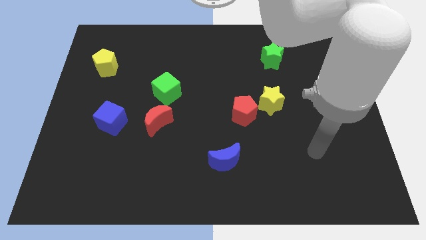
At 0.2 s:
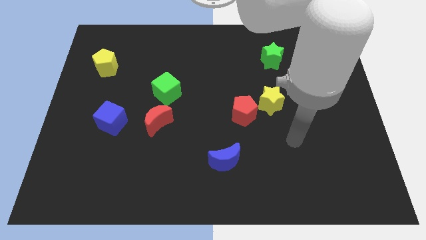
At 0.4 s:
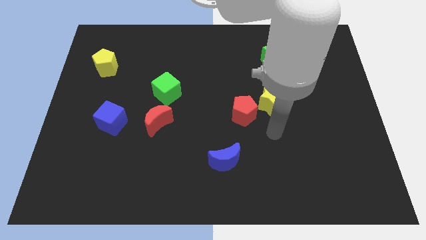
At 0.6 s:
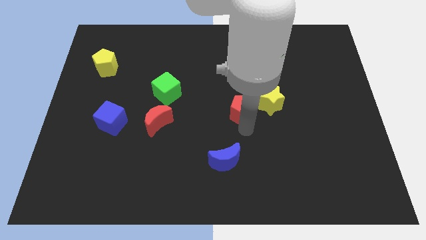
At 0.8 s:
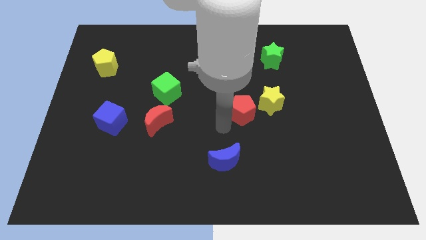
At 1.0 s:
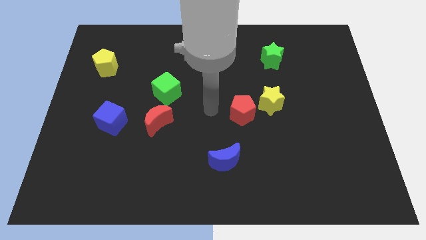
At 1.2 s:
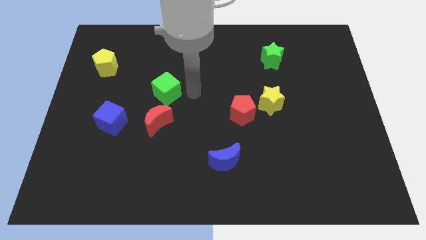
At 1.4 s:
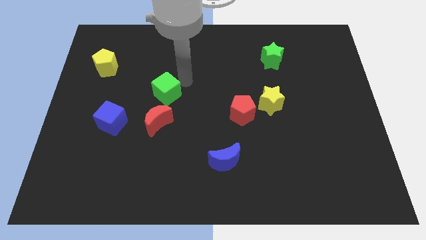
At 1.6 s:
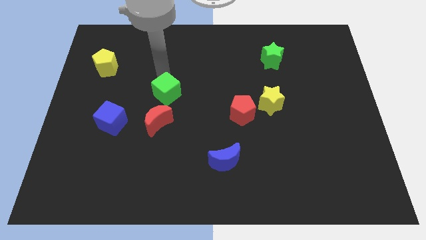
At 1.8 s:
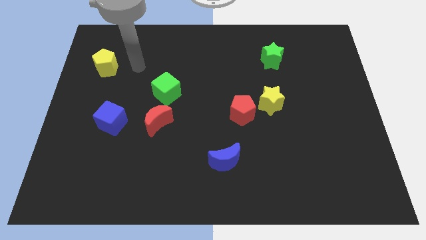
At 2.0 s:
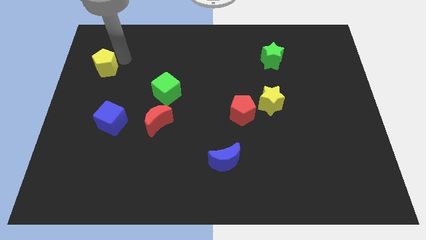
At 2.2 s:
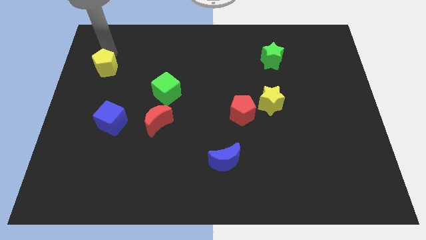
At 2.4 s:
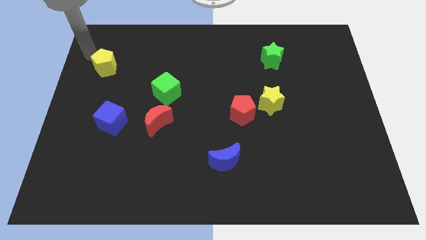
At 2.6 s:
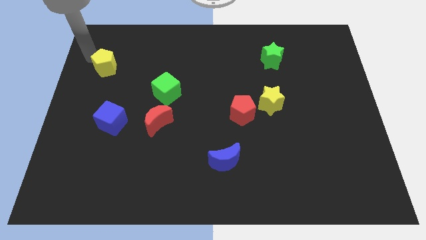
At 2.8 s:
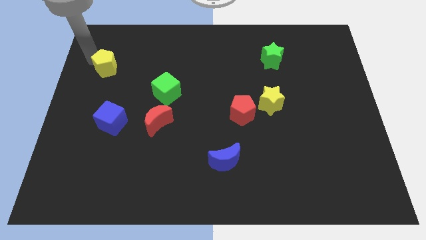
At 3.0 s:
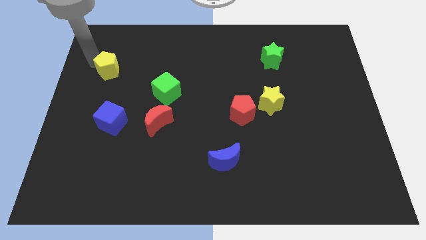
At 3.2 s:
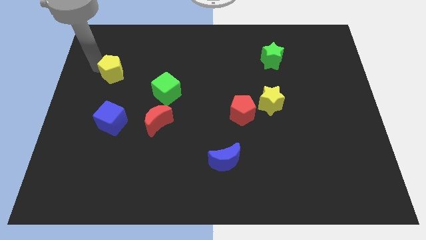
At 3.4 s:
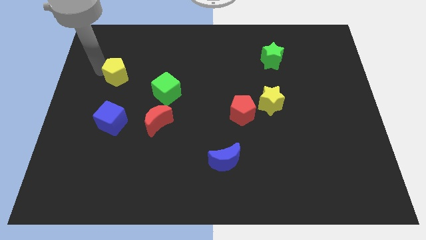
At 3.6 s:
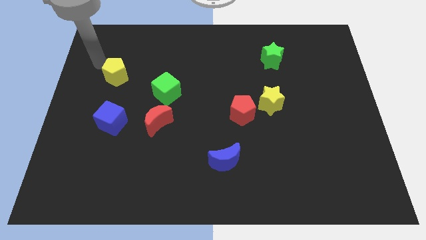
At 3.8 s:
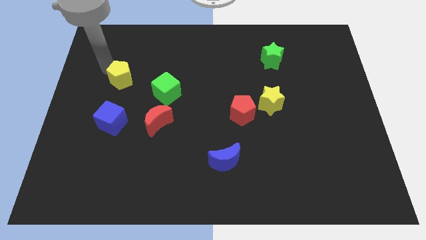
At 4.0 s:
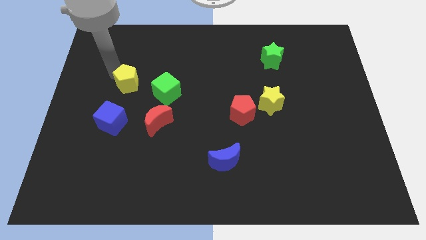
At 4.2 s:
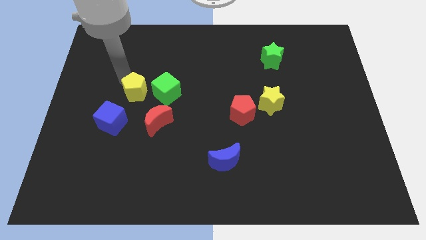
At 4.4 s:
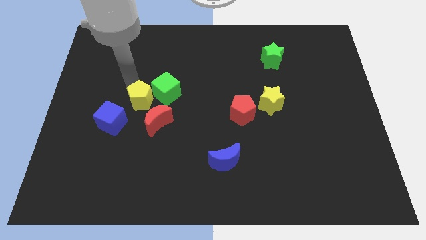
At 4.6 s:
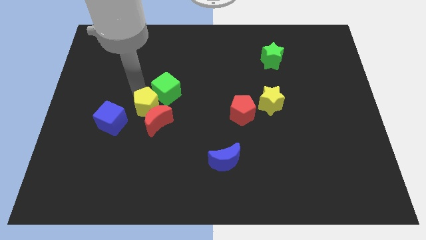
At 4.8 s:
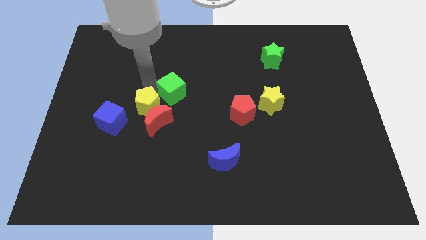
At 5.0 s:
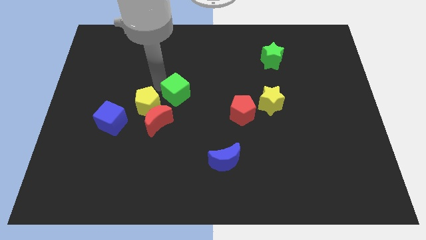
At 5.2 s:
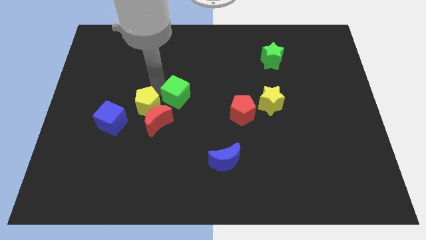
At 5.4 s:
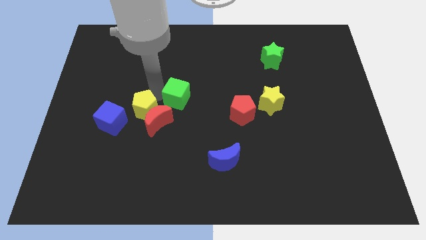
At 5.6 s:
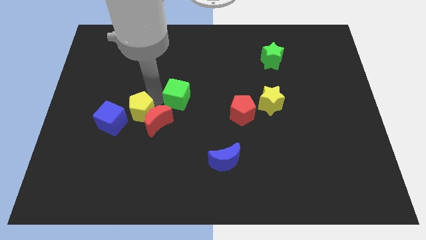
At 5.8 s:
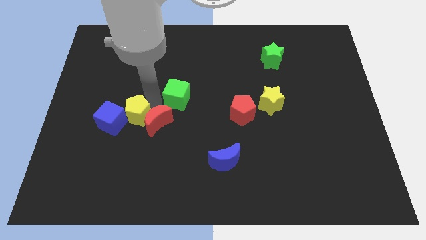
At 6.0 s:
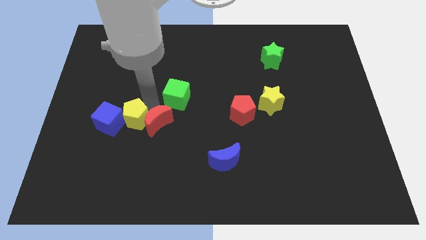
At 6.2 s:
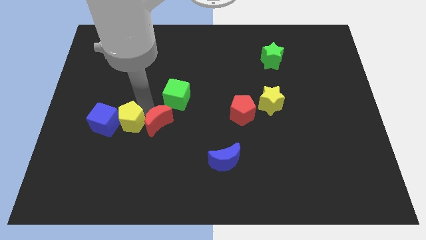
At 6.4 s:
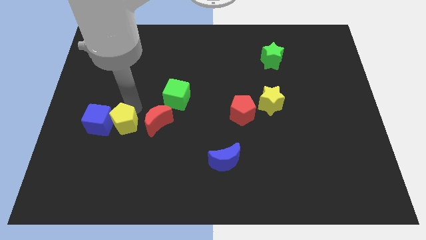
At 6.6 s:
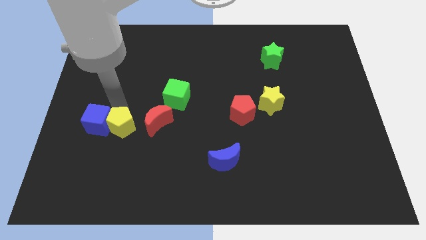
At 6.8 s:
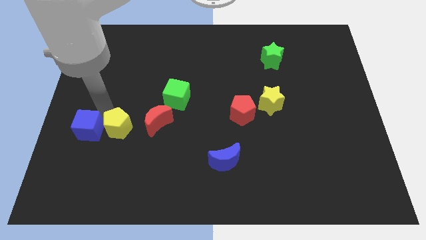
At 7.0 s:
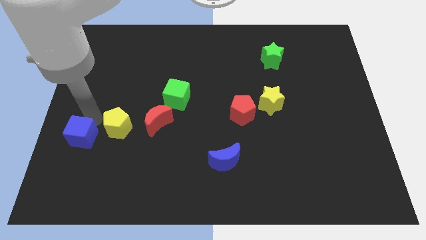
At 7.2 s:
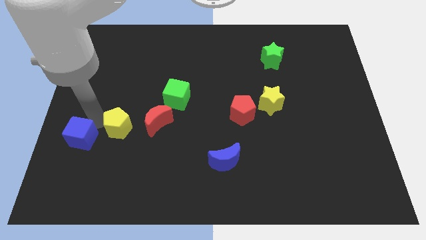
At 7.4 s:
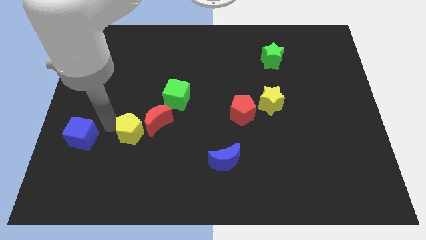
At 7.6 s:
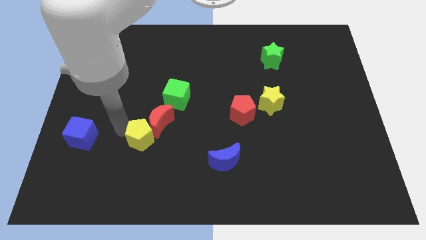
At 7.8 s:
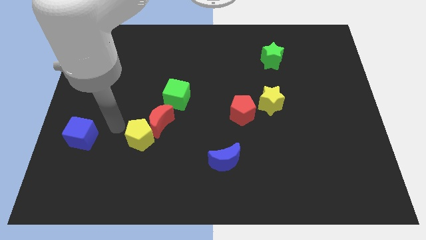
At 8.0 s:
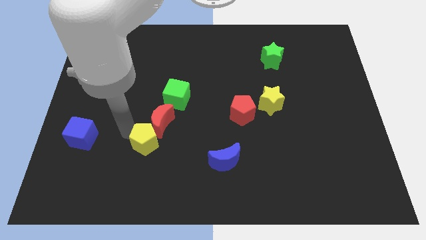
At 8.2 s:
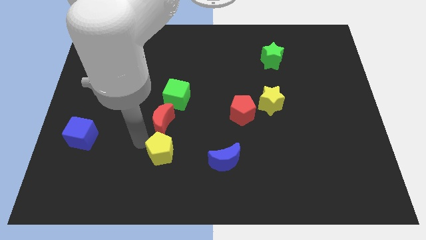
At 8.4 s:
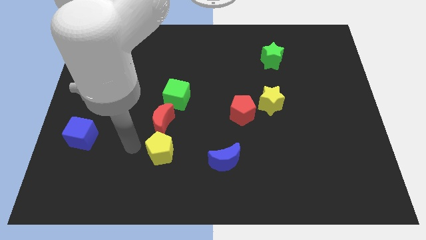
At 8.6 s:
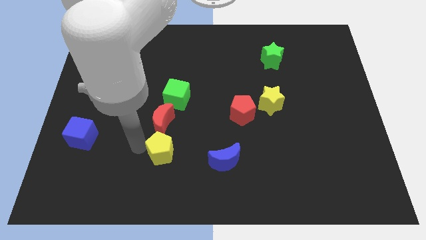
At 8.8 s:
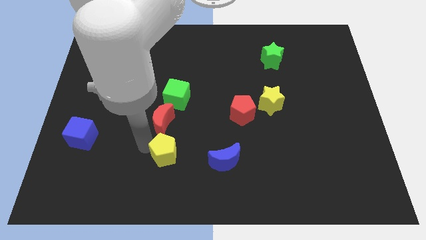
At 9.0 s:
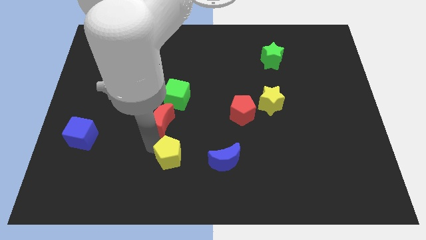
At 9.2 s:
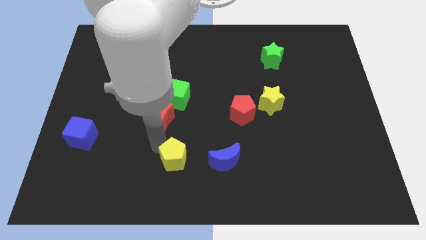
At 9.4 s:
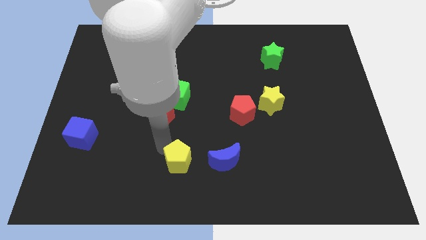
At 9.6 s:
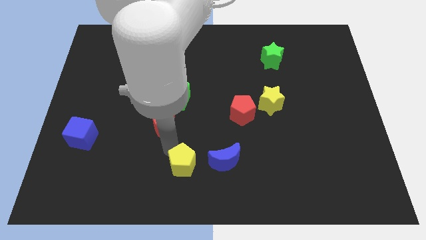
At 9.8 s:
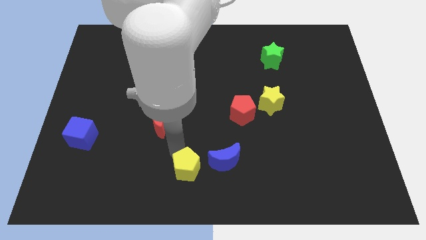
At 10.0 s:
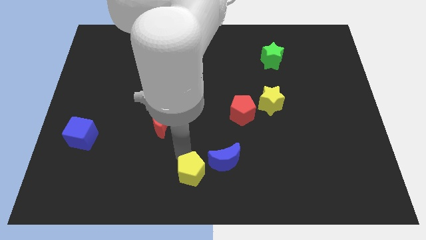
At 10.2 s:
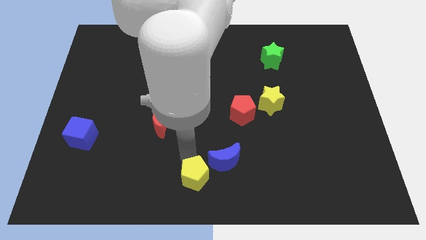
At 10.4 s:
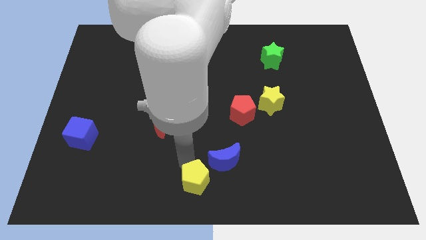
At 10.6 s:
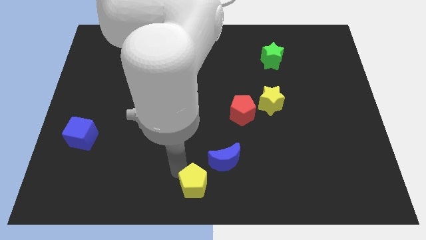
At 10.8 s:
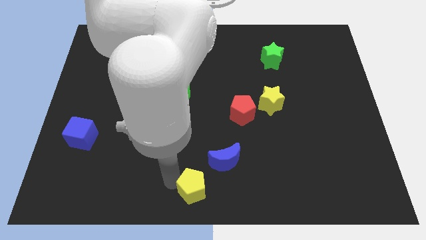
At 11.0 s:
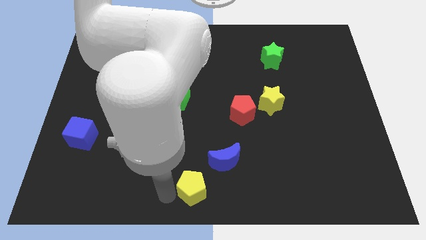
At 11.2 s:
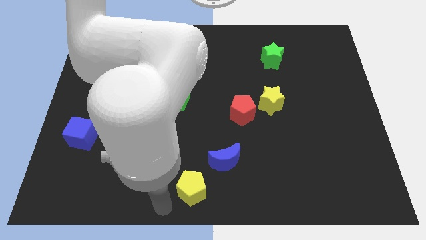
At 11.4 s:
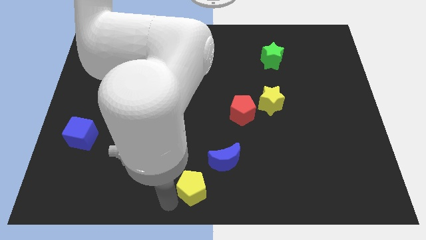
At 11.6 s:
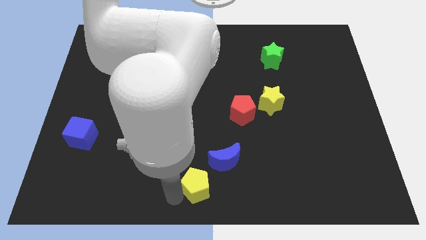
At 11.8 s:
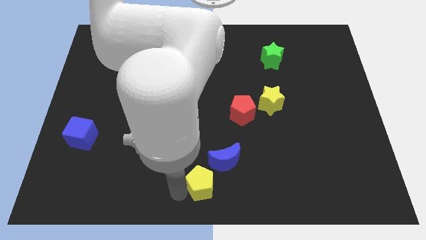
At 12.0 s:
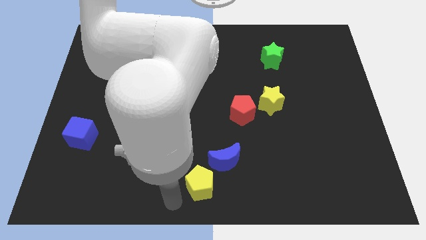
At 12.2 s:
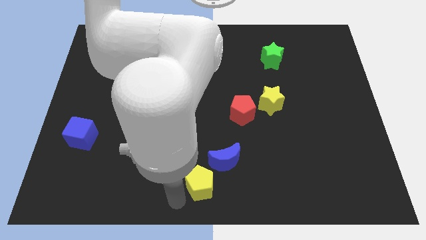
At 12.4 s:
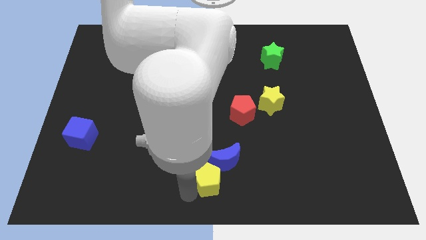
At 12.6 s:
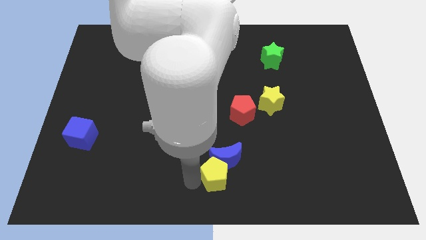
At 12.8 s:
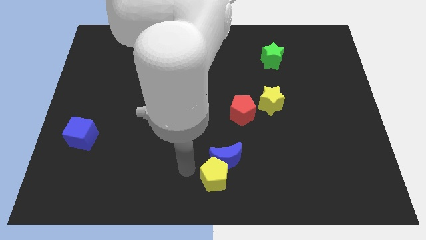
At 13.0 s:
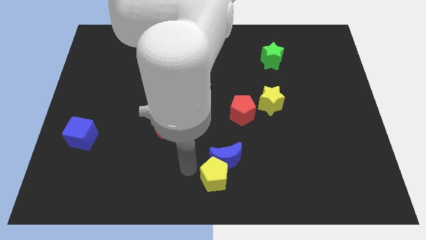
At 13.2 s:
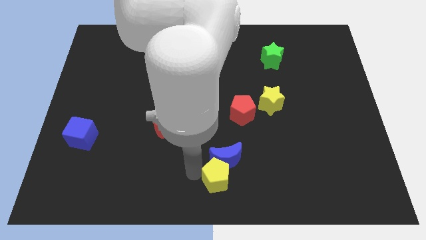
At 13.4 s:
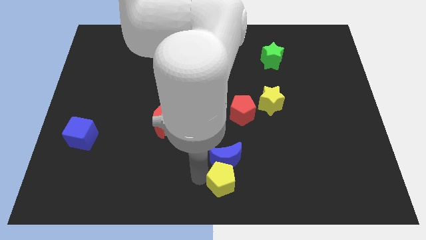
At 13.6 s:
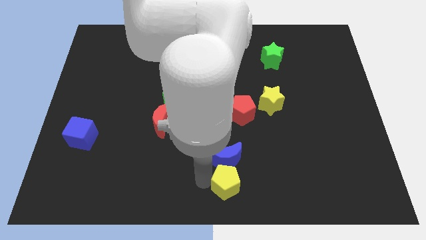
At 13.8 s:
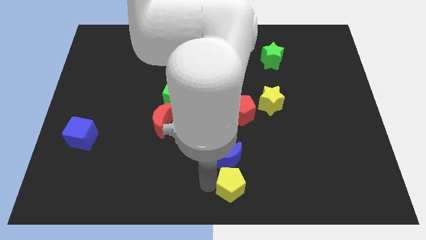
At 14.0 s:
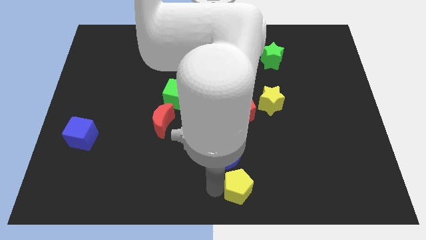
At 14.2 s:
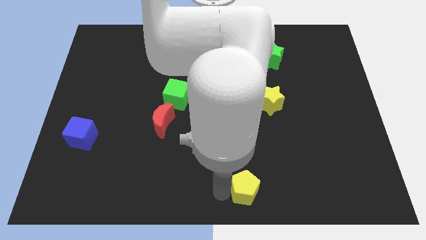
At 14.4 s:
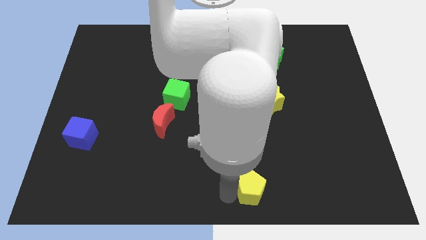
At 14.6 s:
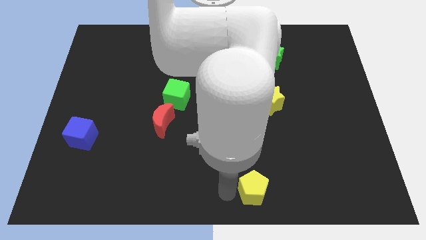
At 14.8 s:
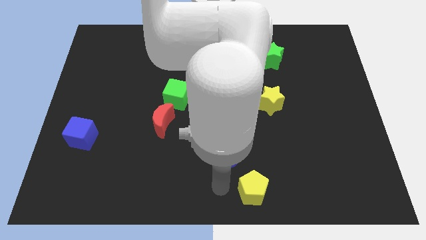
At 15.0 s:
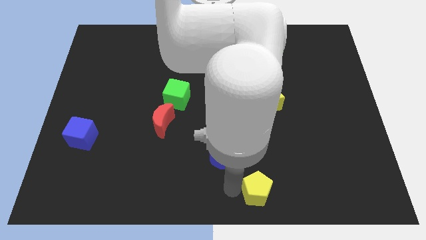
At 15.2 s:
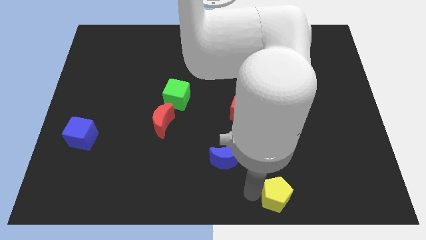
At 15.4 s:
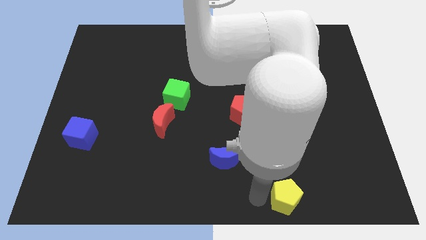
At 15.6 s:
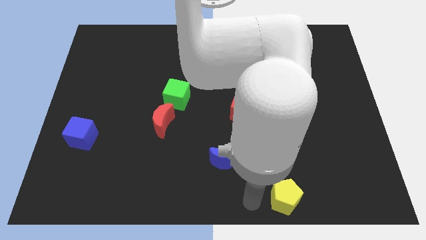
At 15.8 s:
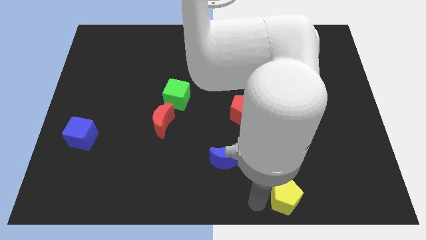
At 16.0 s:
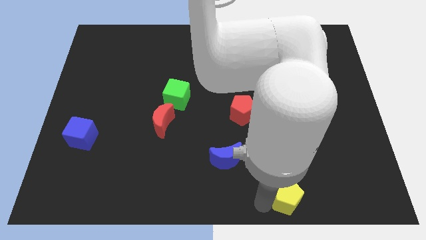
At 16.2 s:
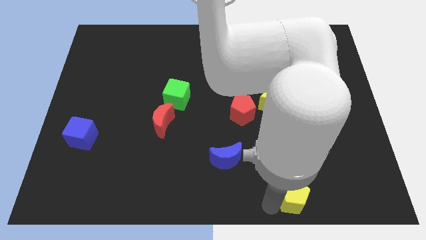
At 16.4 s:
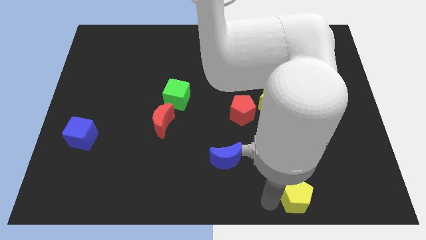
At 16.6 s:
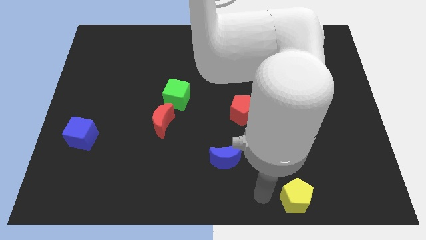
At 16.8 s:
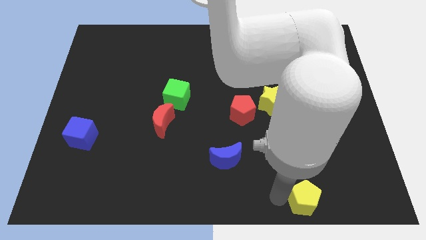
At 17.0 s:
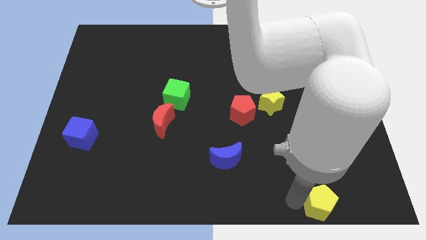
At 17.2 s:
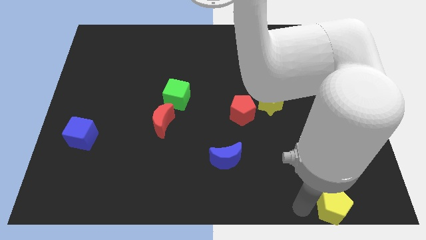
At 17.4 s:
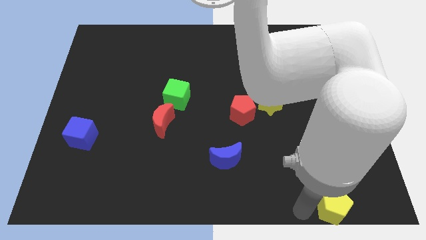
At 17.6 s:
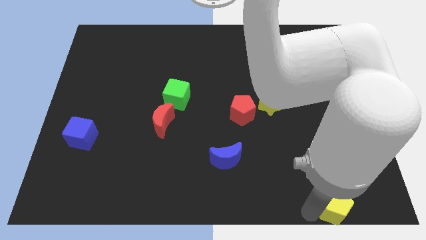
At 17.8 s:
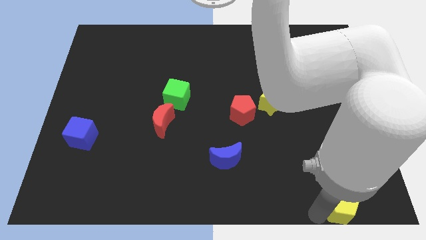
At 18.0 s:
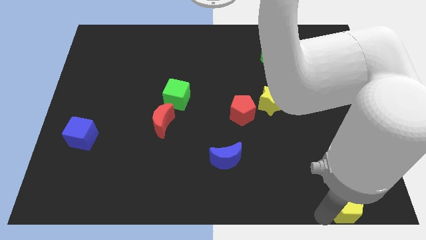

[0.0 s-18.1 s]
move the yellow pentagon to the bottom right corner
